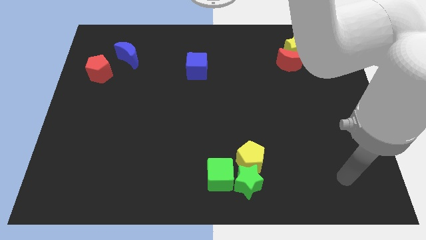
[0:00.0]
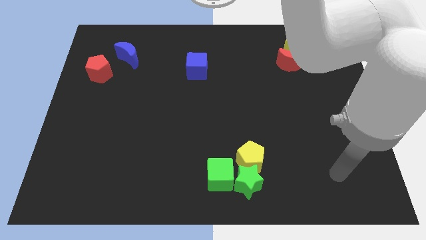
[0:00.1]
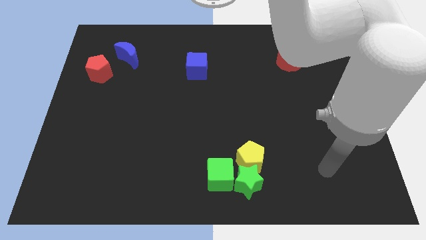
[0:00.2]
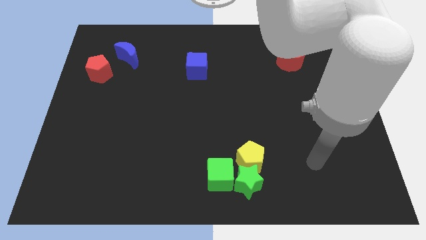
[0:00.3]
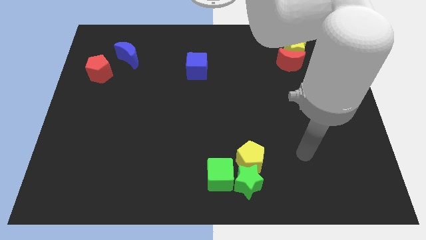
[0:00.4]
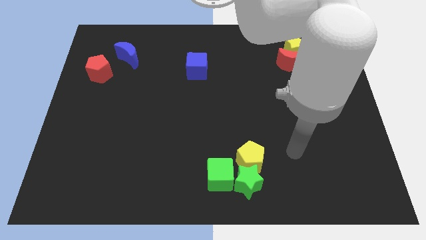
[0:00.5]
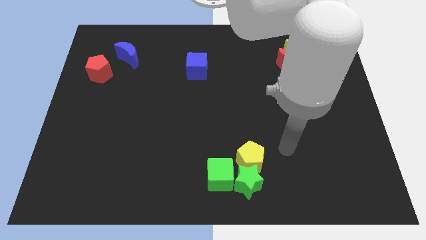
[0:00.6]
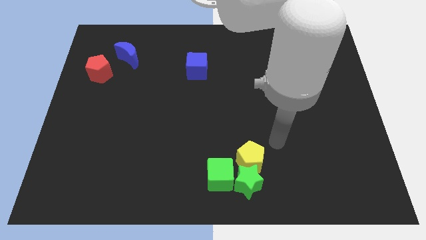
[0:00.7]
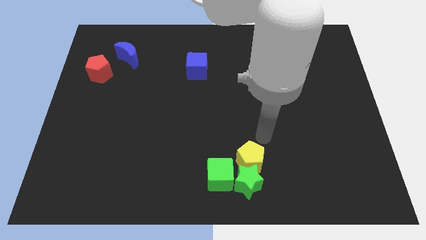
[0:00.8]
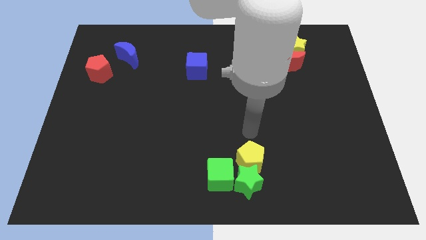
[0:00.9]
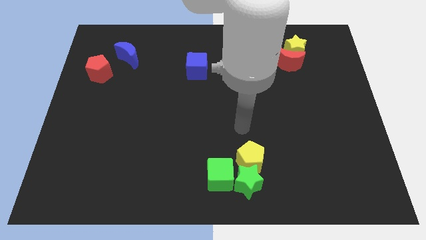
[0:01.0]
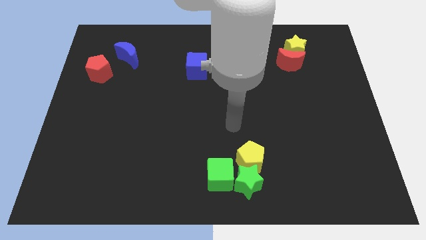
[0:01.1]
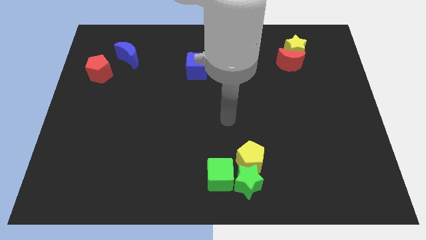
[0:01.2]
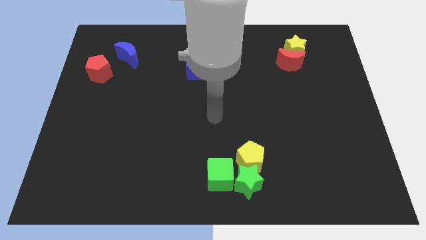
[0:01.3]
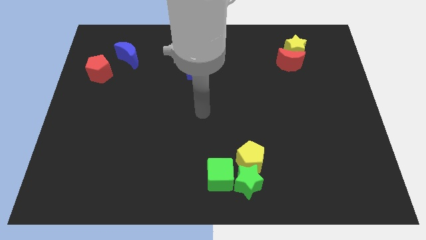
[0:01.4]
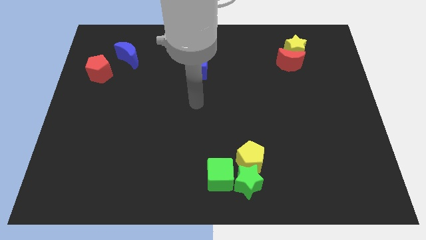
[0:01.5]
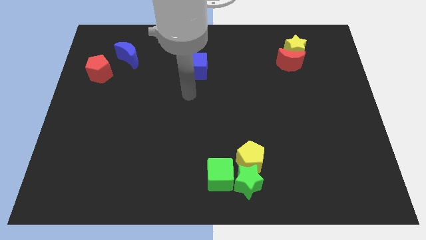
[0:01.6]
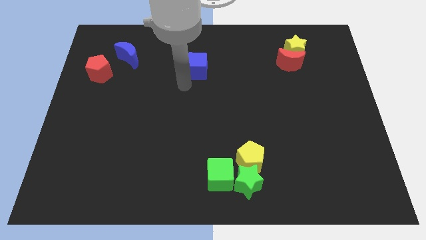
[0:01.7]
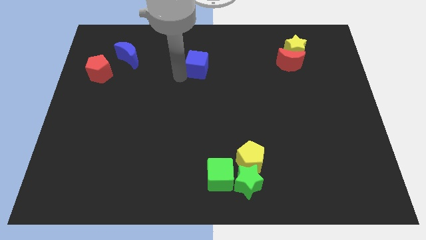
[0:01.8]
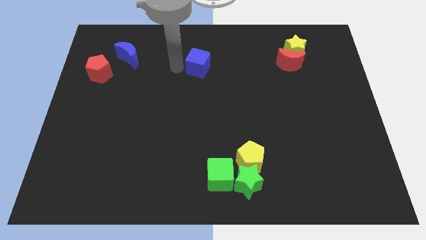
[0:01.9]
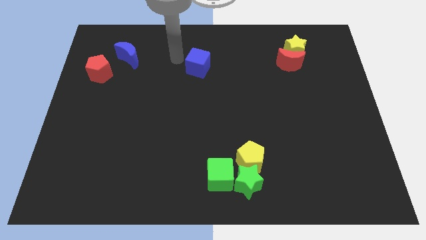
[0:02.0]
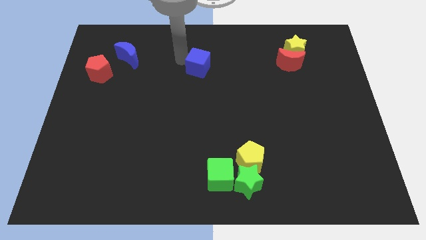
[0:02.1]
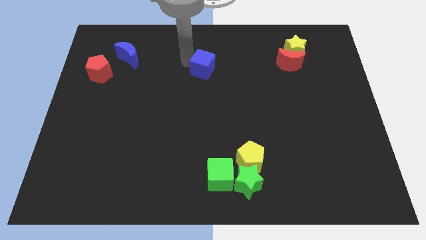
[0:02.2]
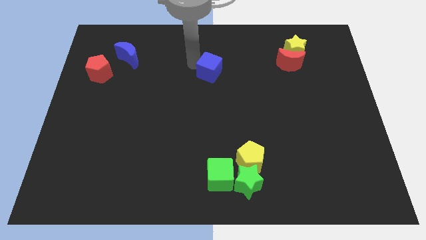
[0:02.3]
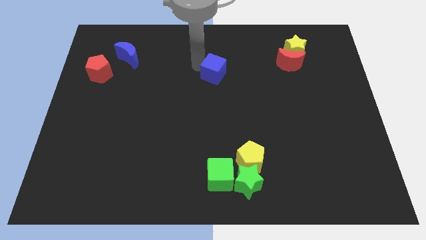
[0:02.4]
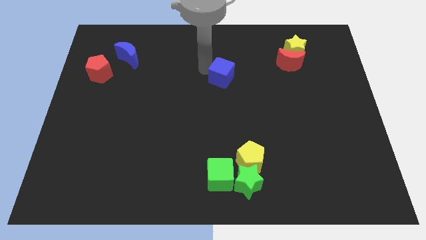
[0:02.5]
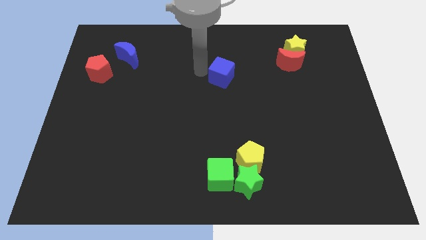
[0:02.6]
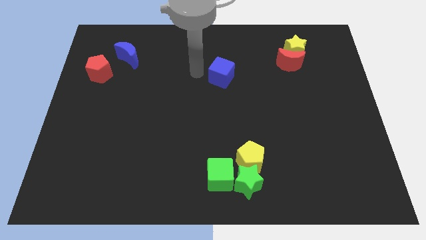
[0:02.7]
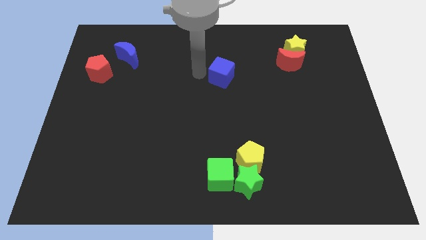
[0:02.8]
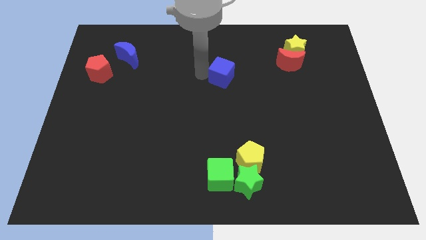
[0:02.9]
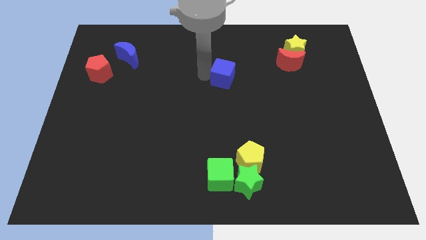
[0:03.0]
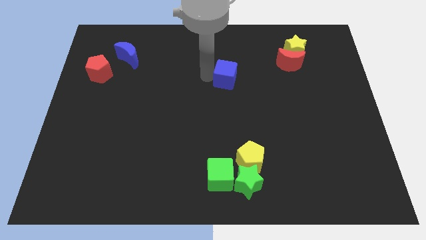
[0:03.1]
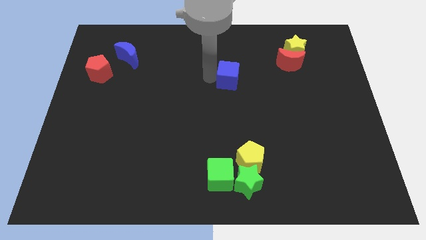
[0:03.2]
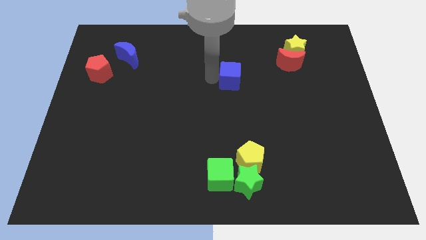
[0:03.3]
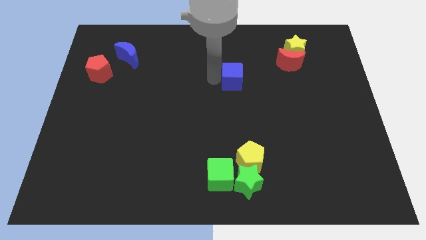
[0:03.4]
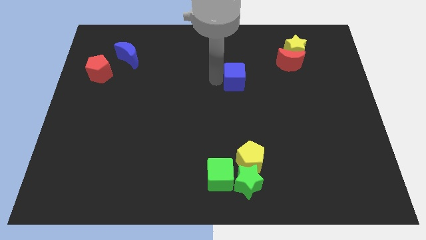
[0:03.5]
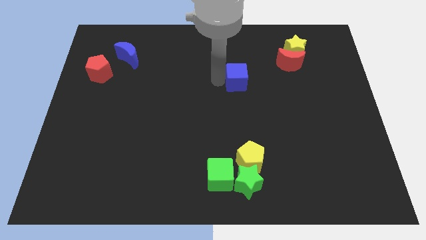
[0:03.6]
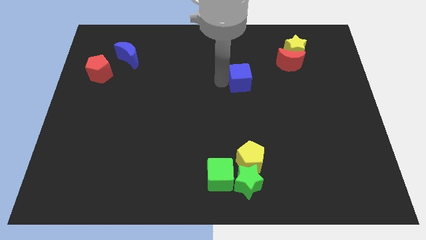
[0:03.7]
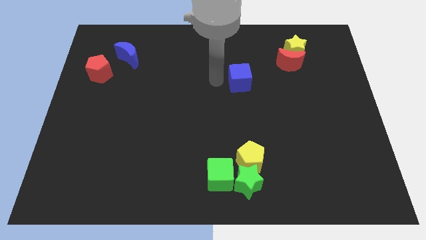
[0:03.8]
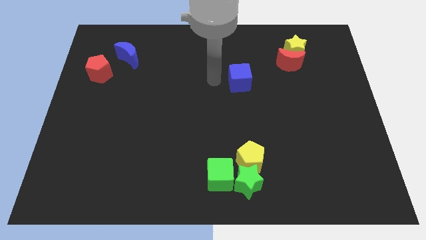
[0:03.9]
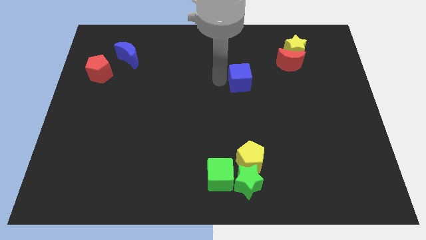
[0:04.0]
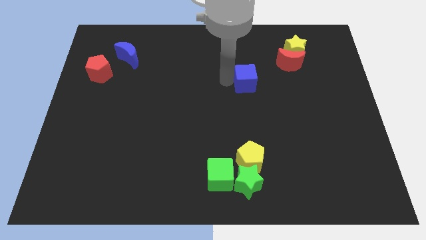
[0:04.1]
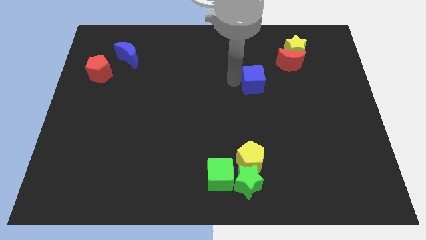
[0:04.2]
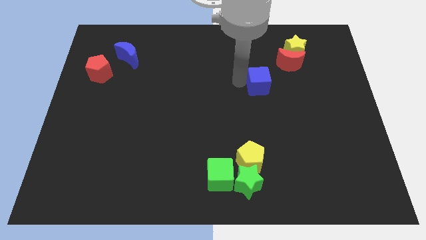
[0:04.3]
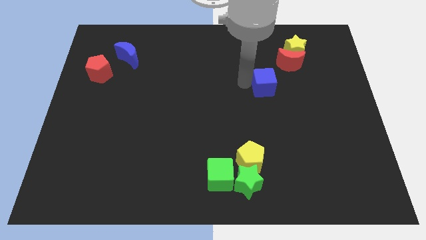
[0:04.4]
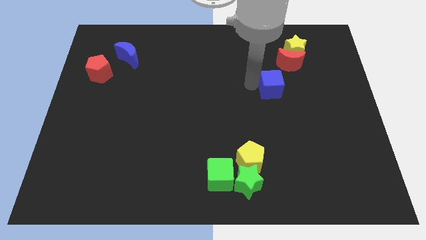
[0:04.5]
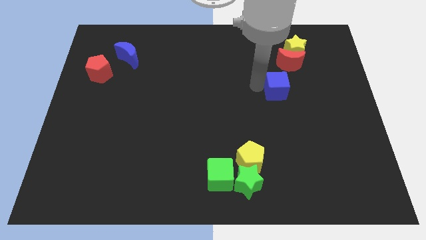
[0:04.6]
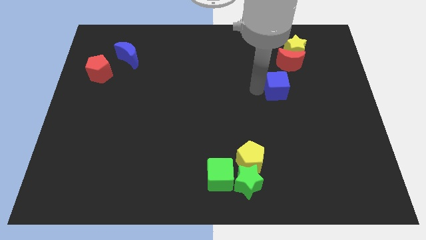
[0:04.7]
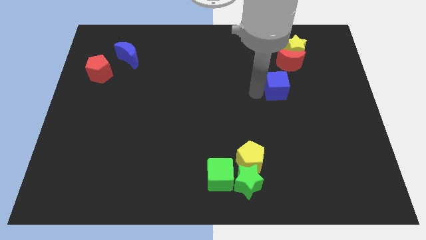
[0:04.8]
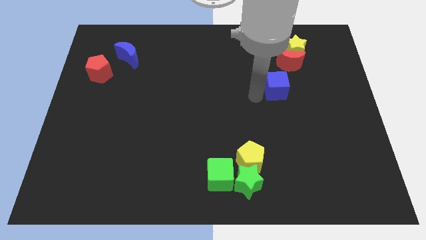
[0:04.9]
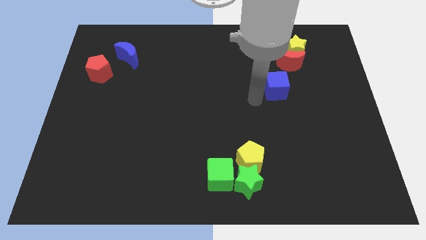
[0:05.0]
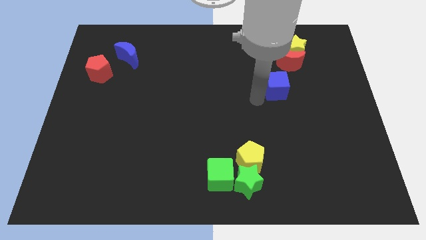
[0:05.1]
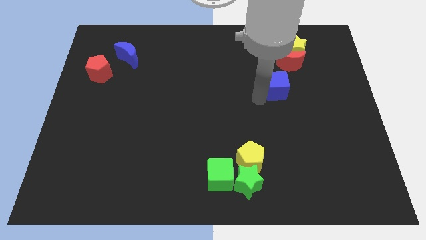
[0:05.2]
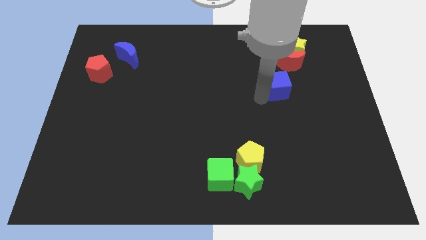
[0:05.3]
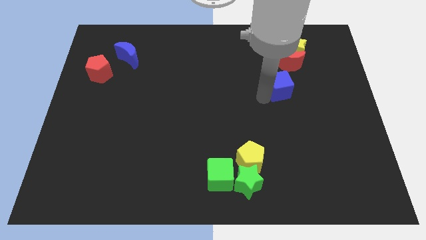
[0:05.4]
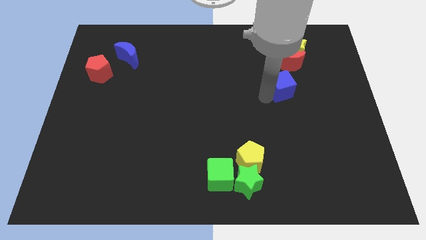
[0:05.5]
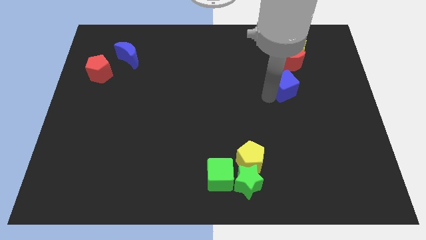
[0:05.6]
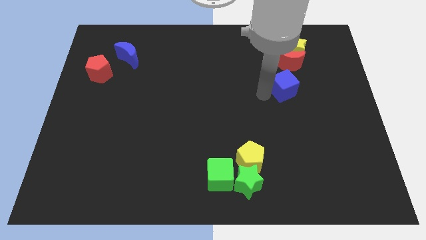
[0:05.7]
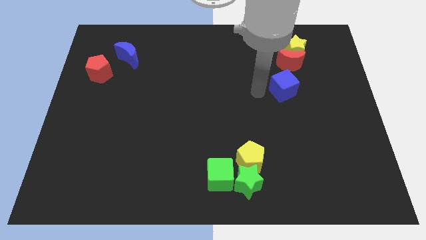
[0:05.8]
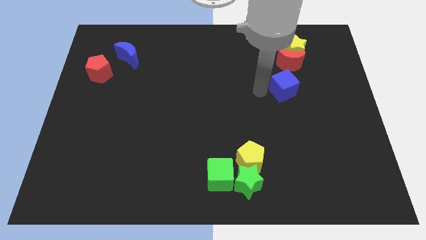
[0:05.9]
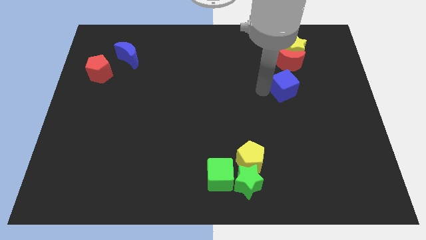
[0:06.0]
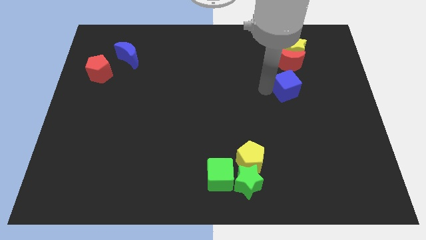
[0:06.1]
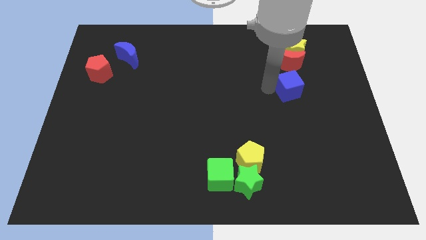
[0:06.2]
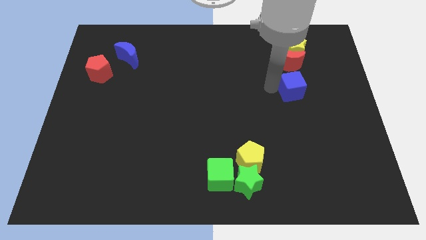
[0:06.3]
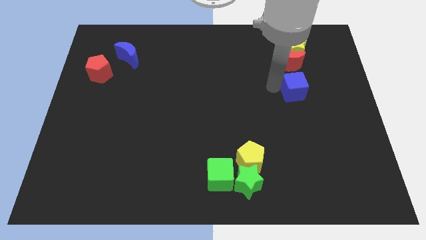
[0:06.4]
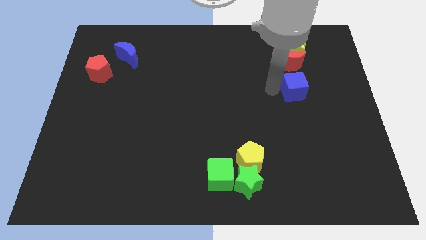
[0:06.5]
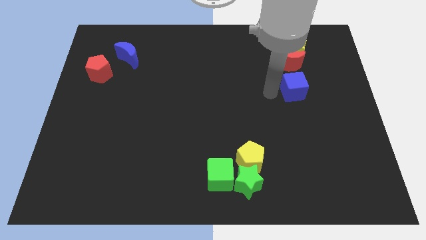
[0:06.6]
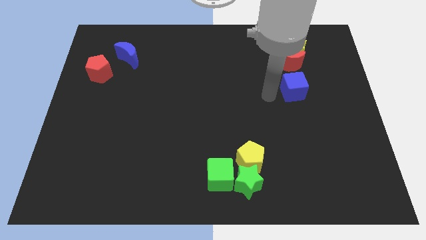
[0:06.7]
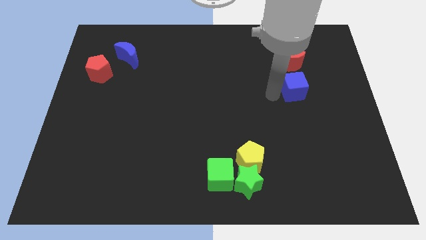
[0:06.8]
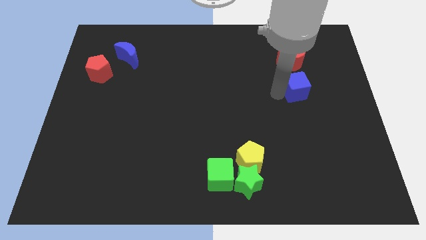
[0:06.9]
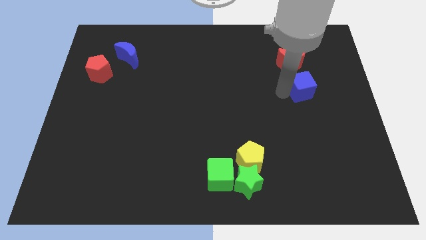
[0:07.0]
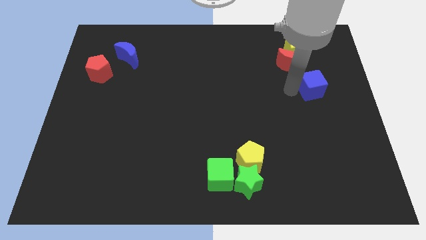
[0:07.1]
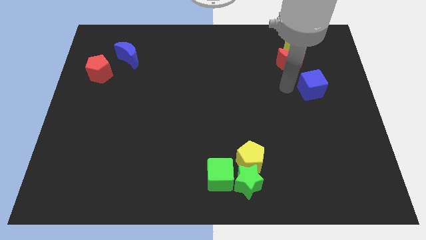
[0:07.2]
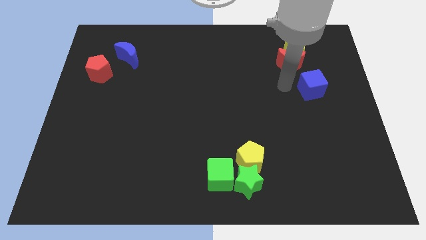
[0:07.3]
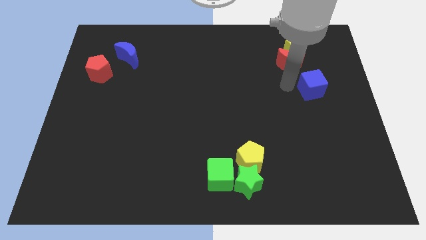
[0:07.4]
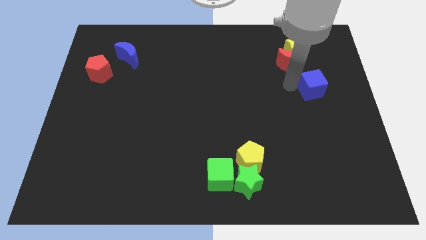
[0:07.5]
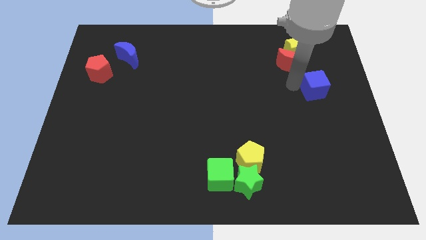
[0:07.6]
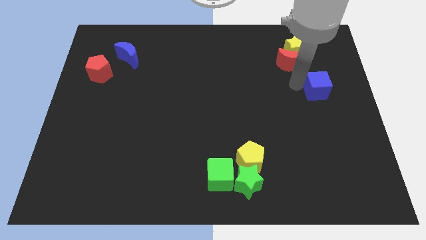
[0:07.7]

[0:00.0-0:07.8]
slide the blue cube to the right side of the board
